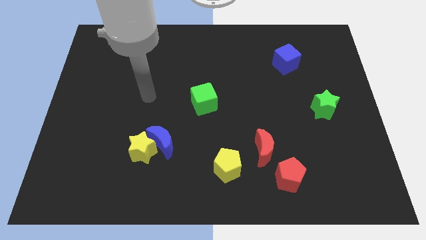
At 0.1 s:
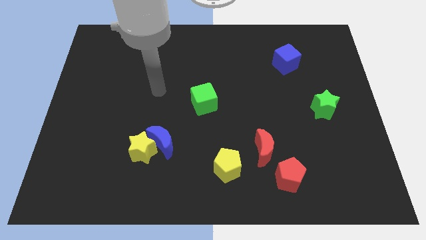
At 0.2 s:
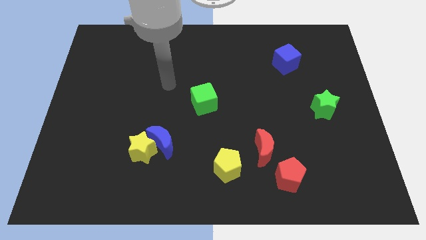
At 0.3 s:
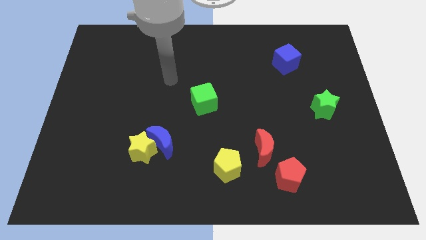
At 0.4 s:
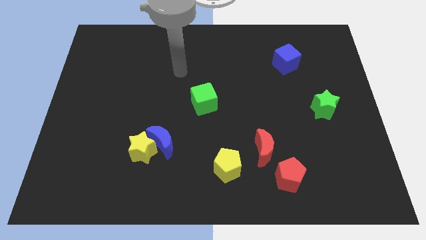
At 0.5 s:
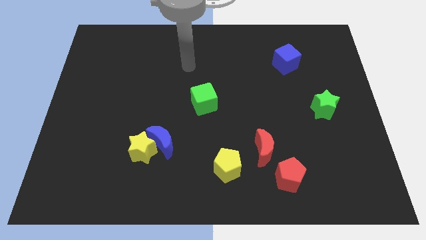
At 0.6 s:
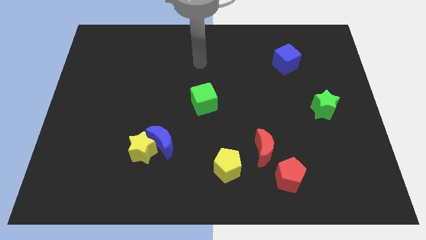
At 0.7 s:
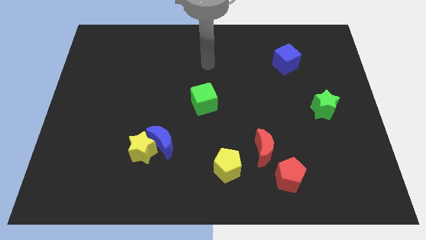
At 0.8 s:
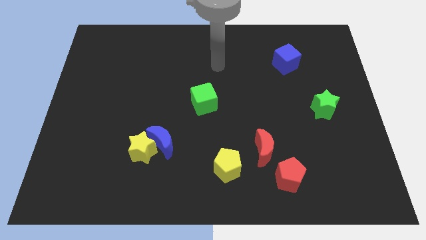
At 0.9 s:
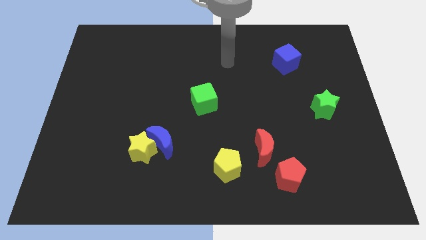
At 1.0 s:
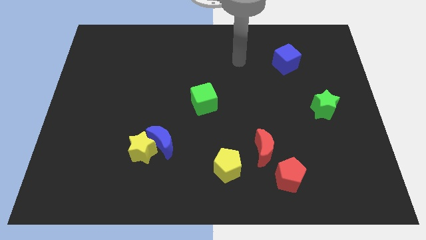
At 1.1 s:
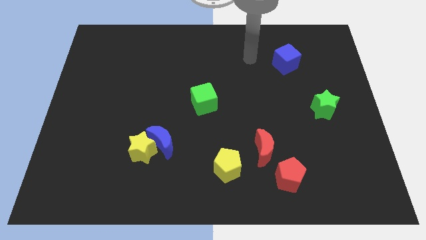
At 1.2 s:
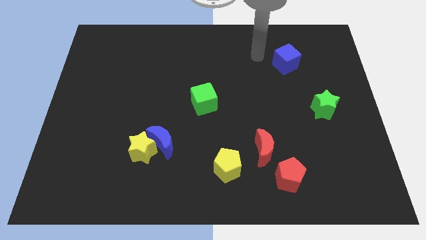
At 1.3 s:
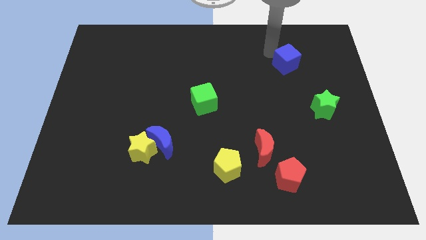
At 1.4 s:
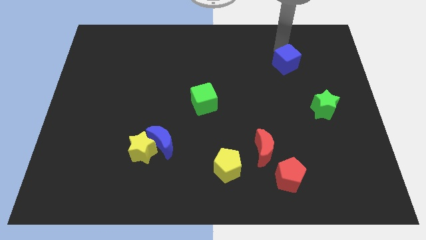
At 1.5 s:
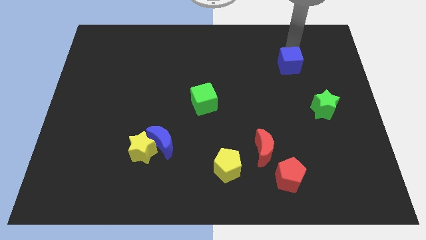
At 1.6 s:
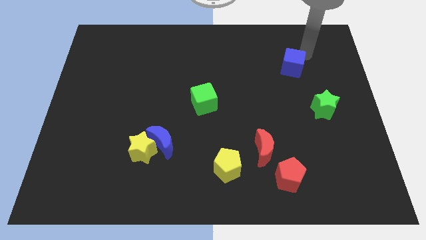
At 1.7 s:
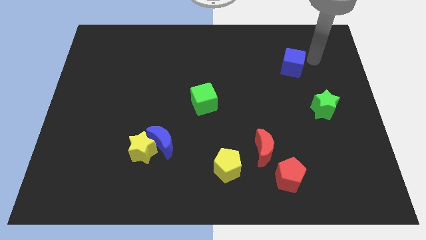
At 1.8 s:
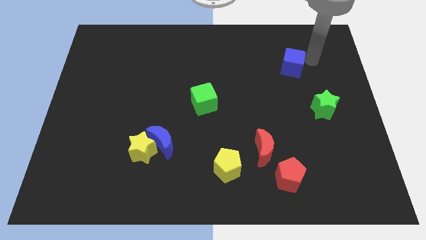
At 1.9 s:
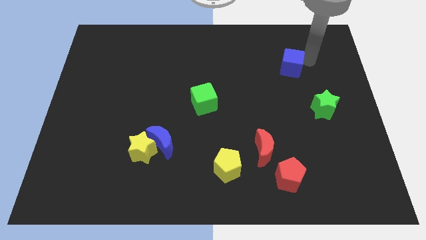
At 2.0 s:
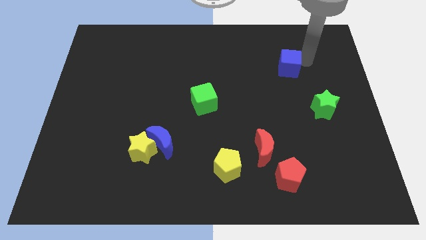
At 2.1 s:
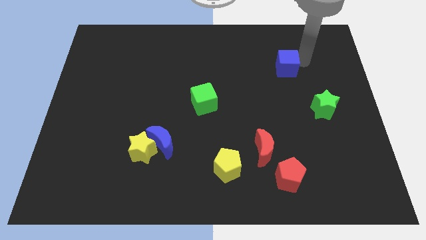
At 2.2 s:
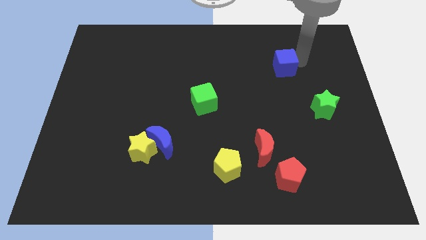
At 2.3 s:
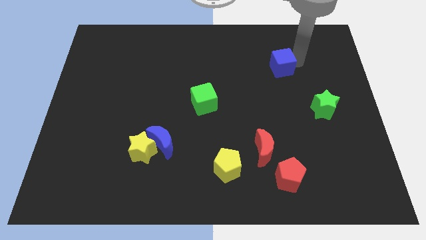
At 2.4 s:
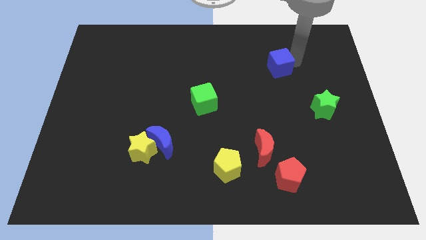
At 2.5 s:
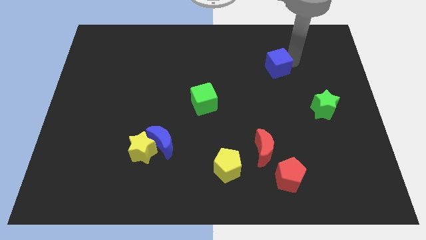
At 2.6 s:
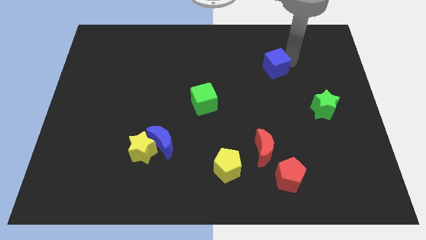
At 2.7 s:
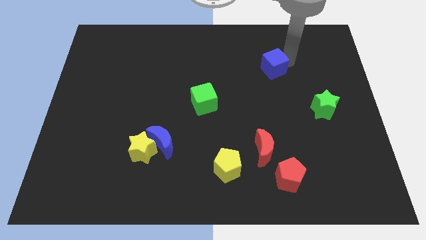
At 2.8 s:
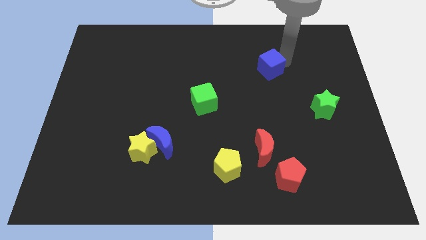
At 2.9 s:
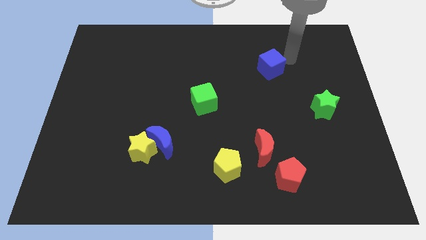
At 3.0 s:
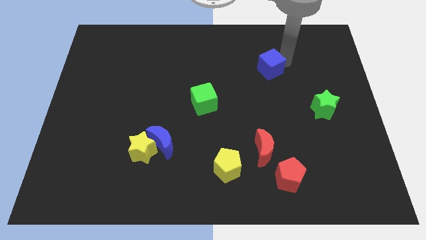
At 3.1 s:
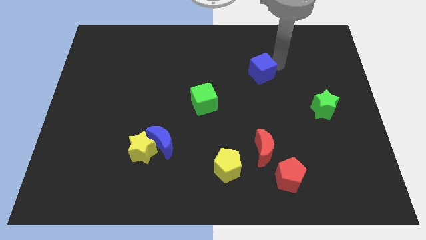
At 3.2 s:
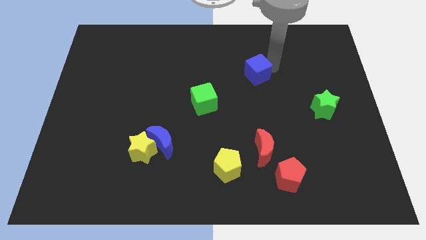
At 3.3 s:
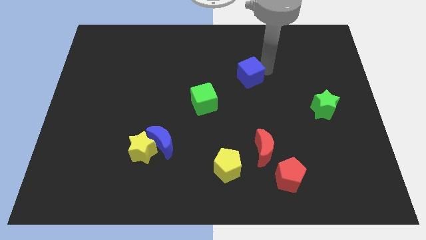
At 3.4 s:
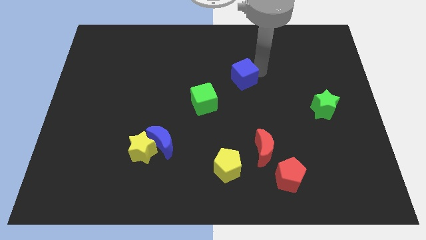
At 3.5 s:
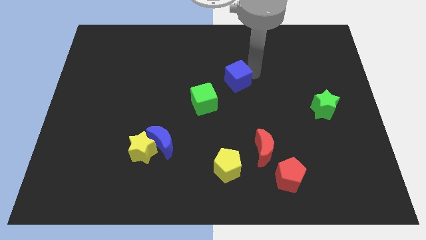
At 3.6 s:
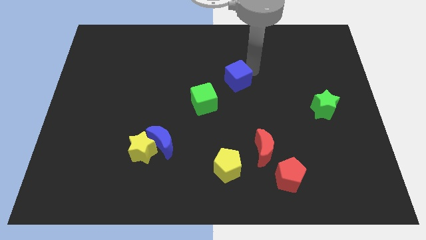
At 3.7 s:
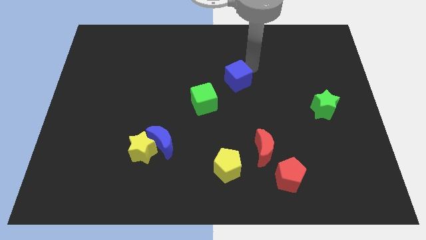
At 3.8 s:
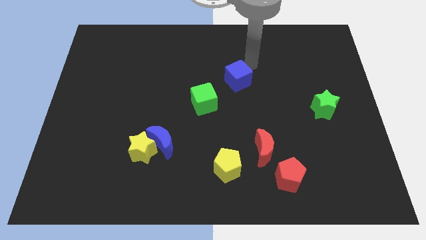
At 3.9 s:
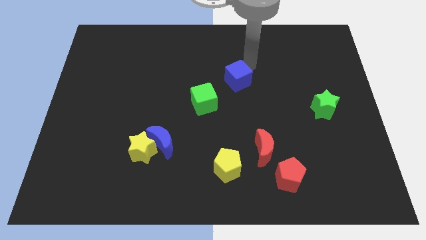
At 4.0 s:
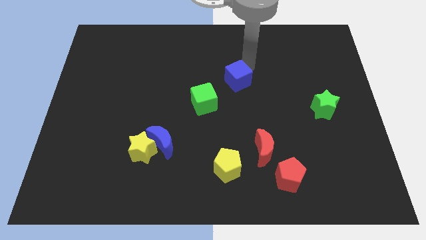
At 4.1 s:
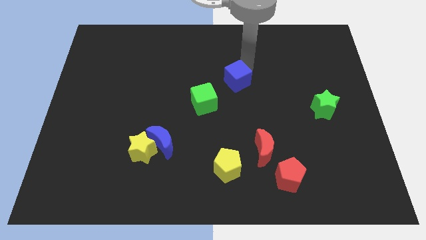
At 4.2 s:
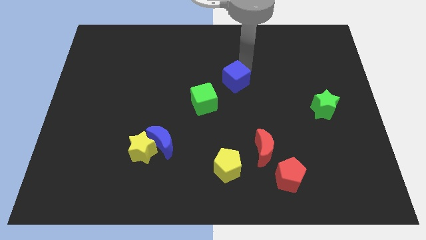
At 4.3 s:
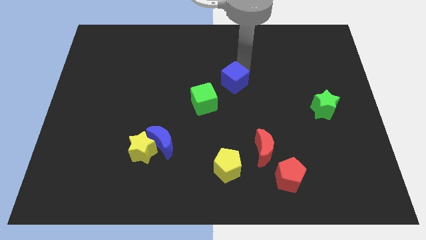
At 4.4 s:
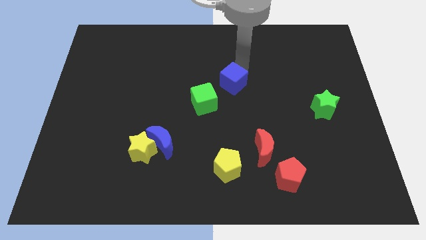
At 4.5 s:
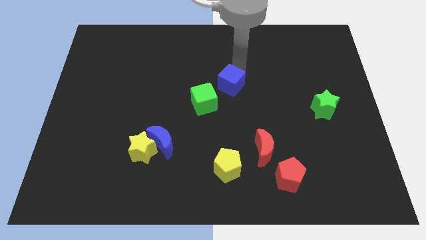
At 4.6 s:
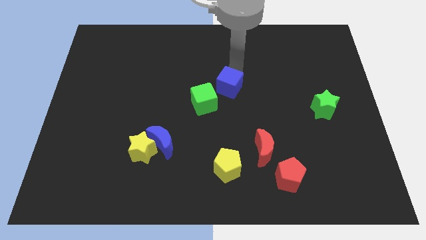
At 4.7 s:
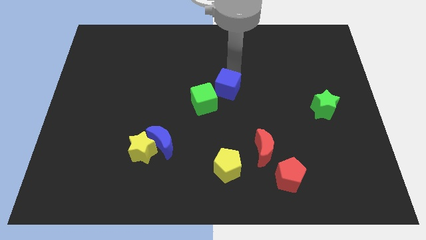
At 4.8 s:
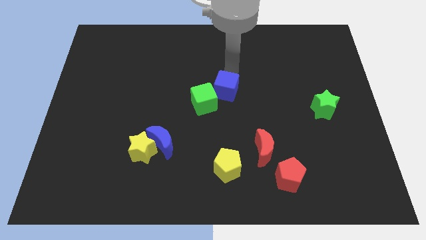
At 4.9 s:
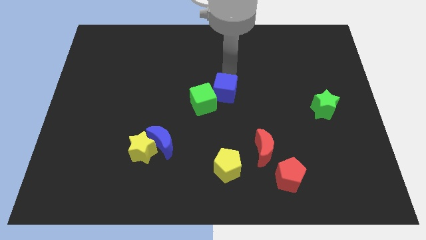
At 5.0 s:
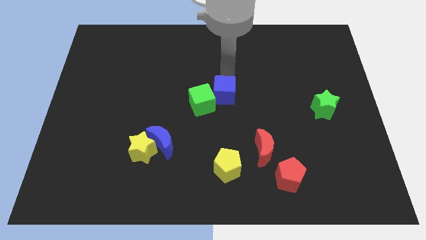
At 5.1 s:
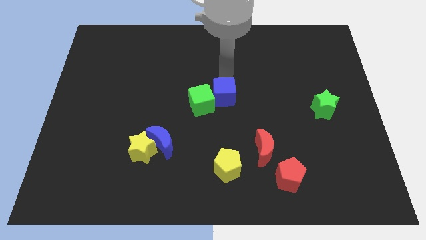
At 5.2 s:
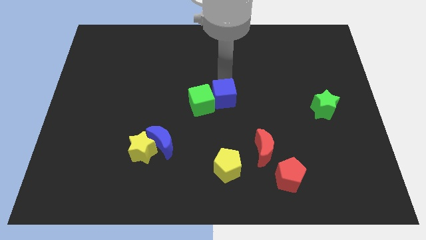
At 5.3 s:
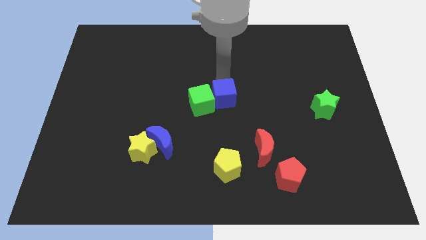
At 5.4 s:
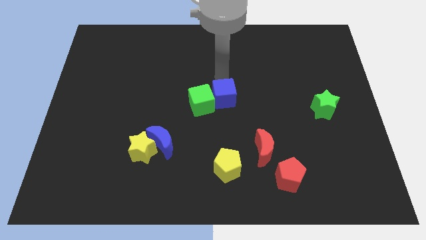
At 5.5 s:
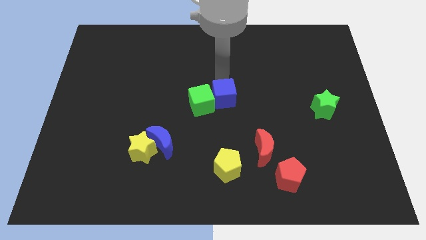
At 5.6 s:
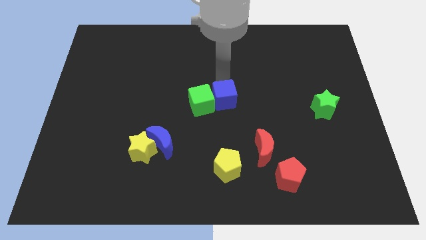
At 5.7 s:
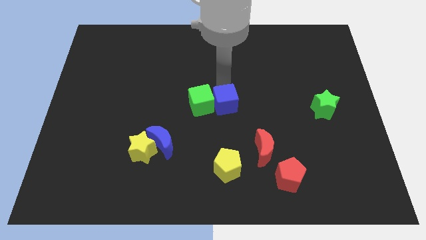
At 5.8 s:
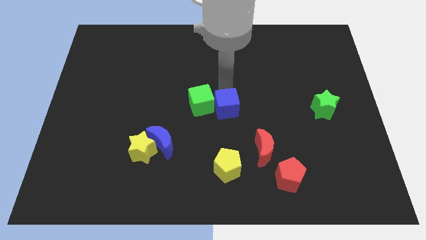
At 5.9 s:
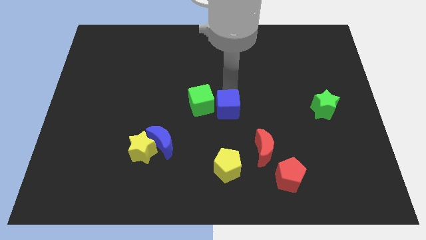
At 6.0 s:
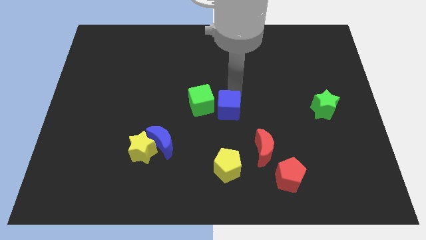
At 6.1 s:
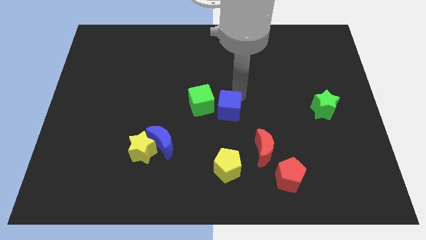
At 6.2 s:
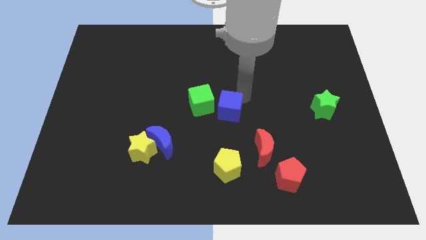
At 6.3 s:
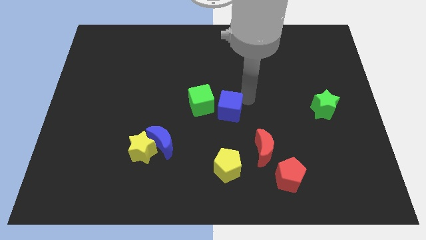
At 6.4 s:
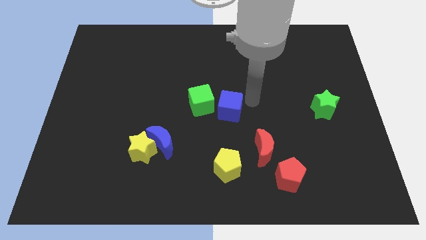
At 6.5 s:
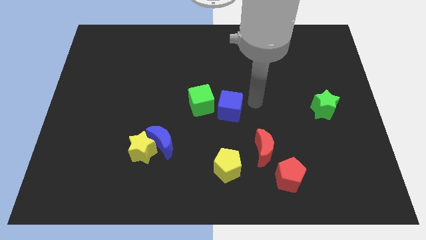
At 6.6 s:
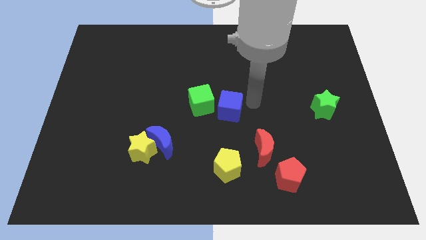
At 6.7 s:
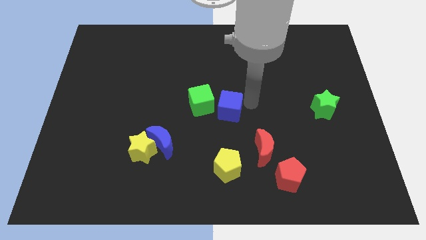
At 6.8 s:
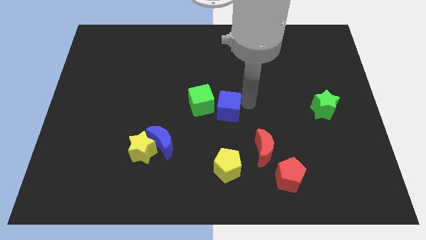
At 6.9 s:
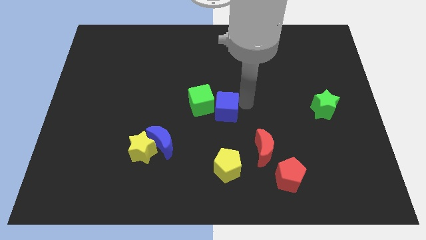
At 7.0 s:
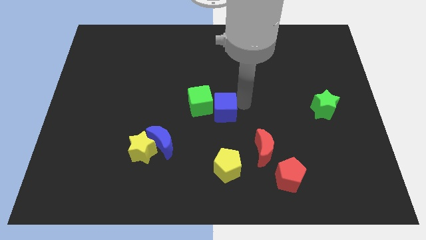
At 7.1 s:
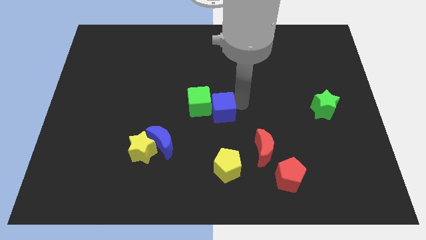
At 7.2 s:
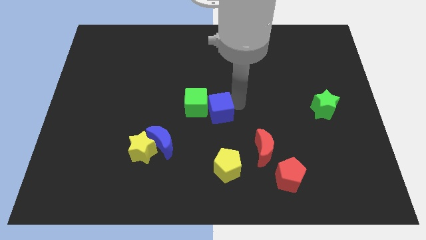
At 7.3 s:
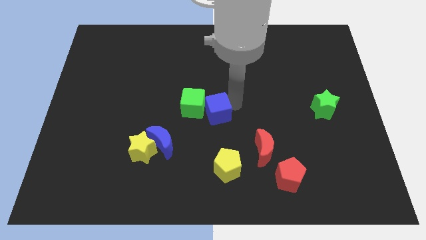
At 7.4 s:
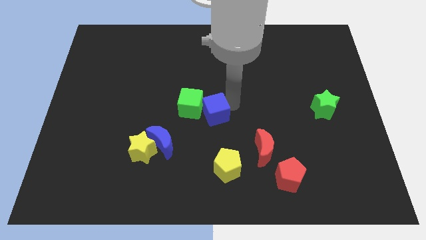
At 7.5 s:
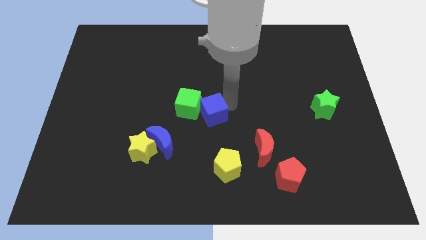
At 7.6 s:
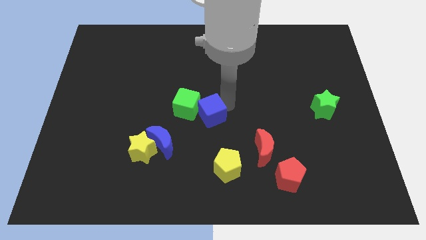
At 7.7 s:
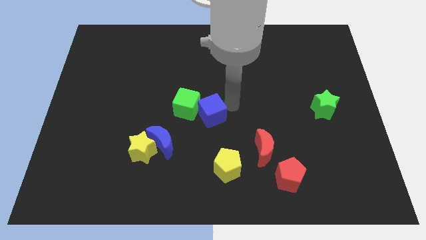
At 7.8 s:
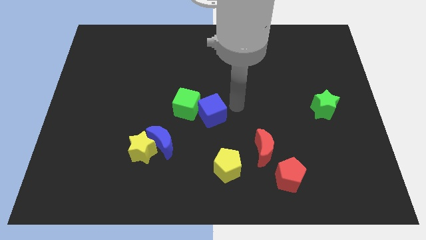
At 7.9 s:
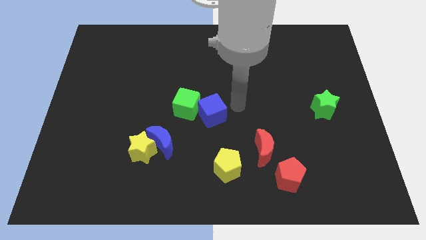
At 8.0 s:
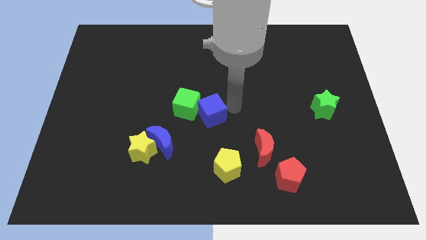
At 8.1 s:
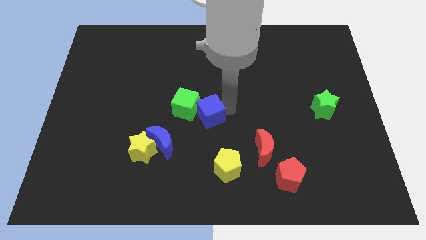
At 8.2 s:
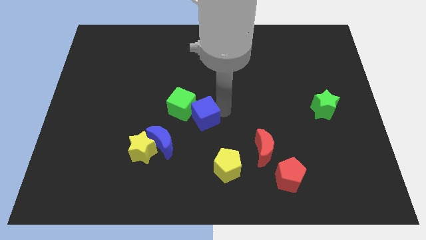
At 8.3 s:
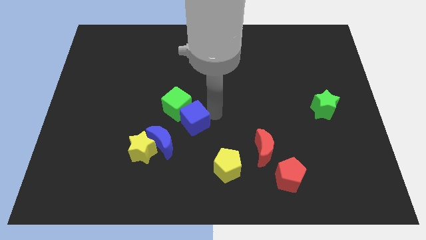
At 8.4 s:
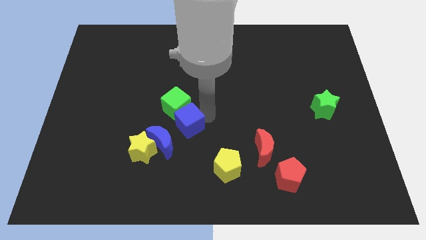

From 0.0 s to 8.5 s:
push the blue cube diagonally up and to the right of the yellow star
